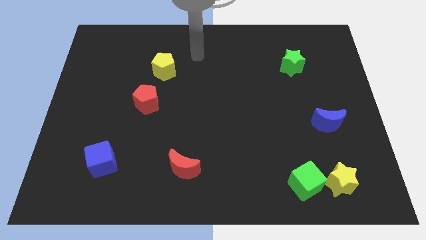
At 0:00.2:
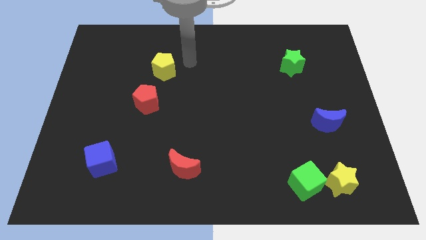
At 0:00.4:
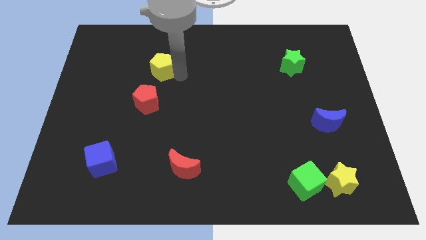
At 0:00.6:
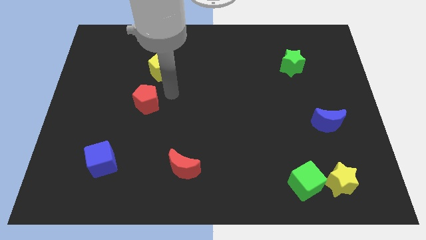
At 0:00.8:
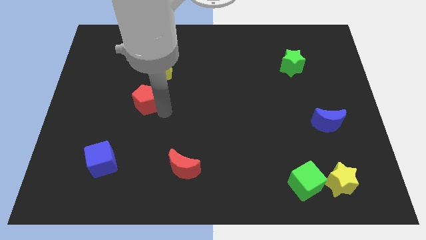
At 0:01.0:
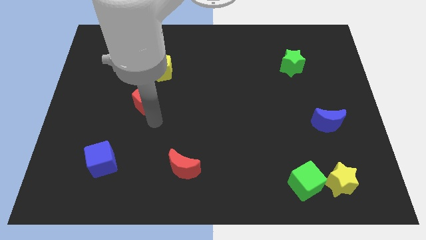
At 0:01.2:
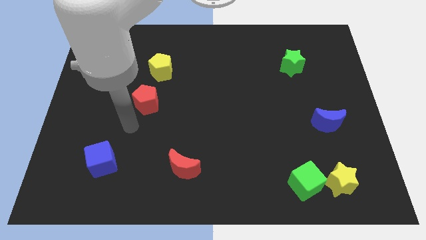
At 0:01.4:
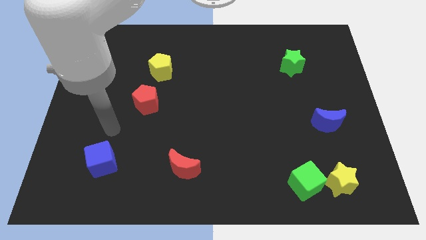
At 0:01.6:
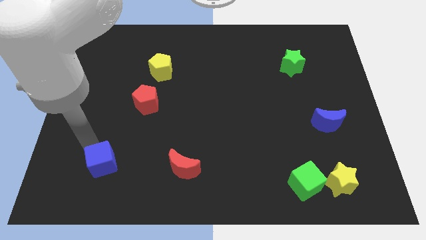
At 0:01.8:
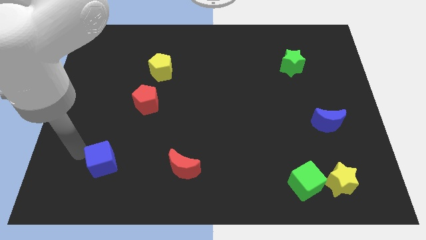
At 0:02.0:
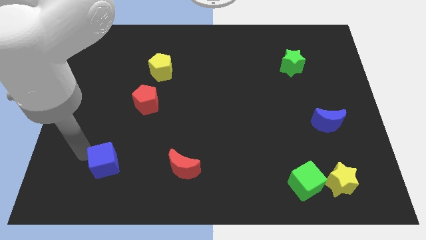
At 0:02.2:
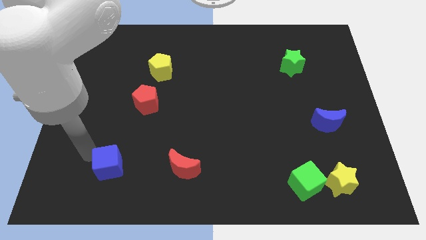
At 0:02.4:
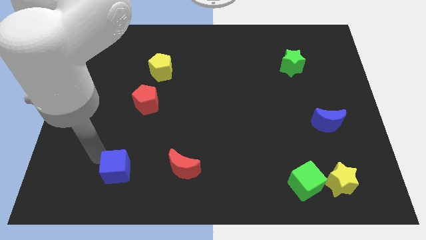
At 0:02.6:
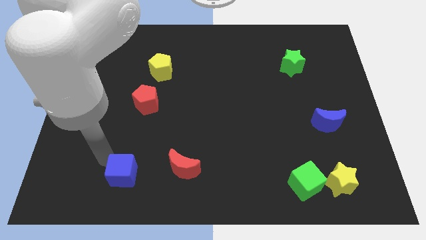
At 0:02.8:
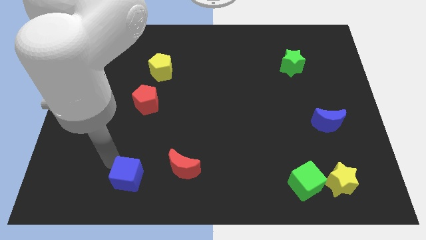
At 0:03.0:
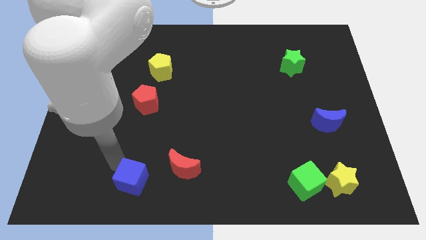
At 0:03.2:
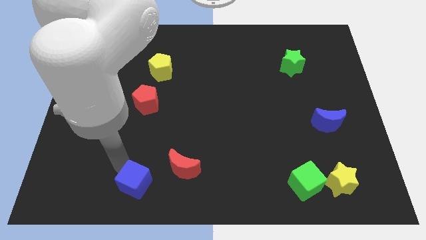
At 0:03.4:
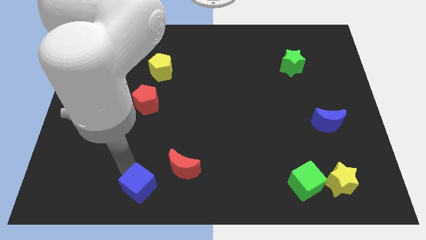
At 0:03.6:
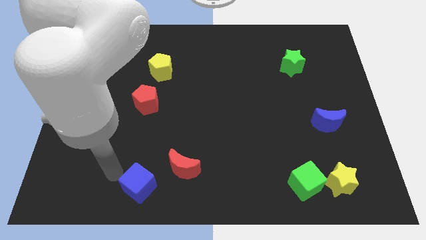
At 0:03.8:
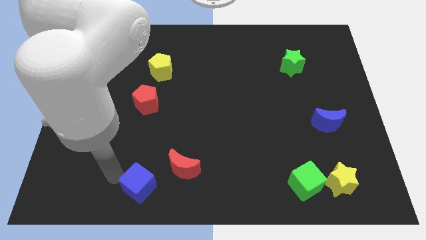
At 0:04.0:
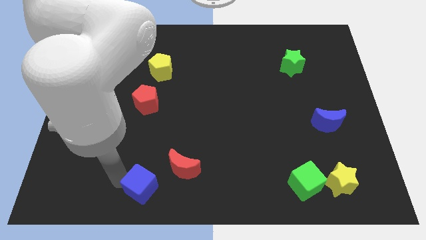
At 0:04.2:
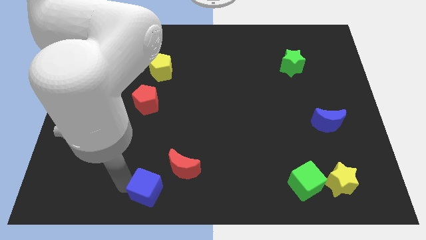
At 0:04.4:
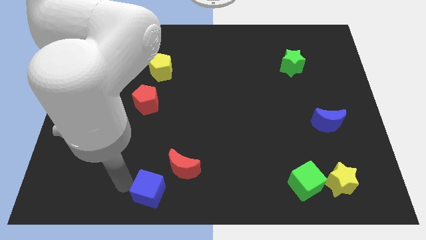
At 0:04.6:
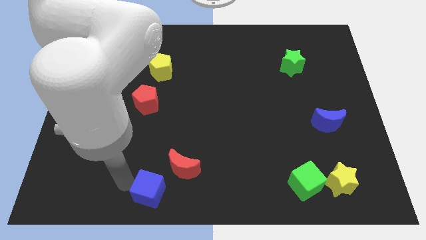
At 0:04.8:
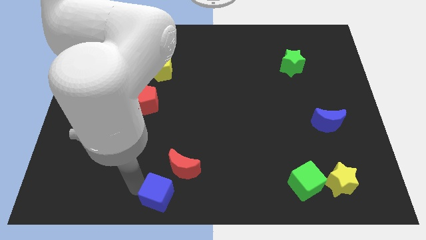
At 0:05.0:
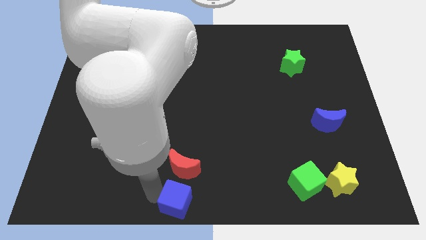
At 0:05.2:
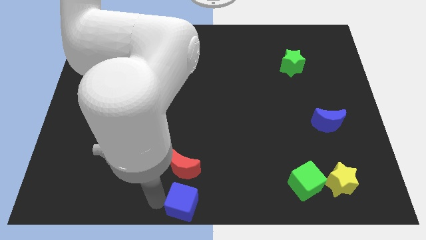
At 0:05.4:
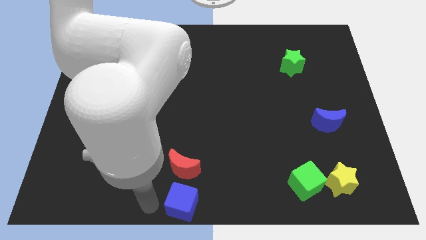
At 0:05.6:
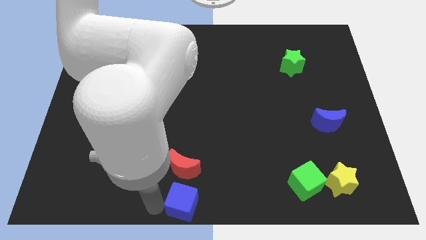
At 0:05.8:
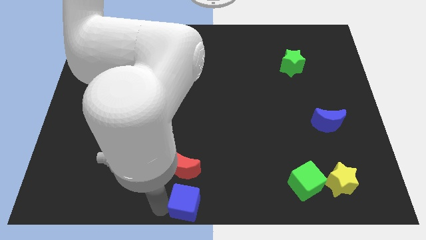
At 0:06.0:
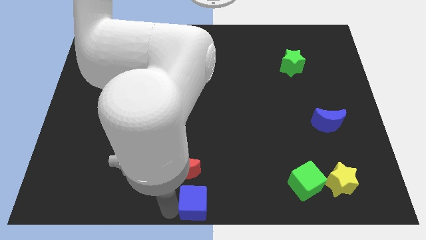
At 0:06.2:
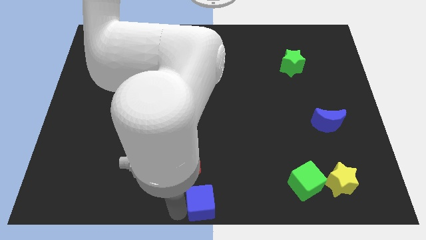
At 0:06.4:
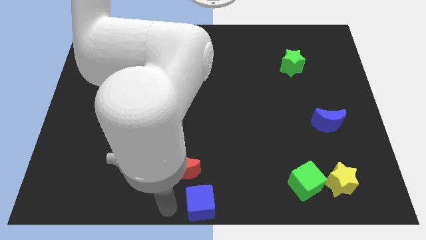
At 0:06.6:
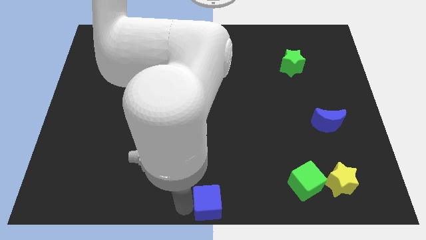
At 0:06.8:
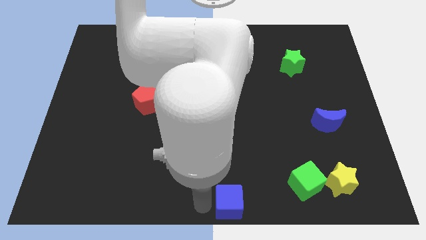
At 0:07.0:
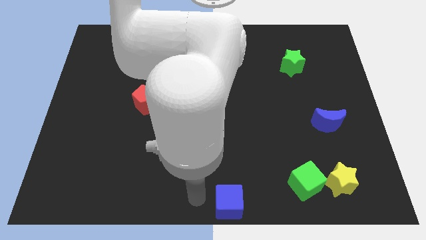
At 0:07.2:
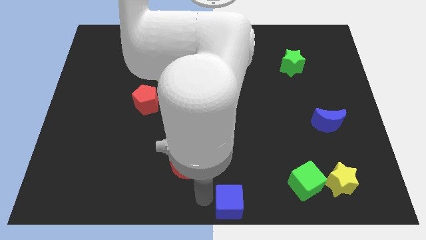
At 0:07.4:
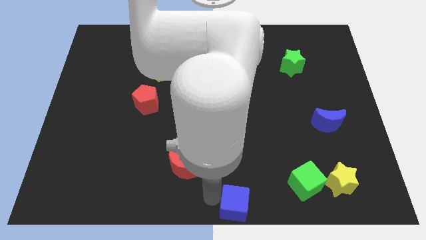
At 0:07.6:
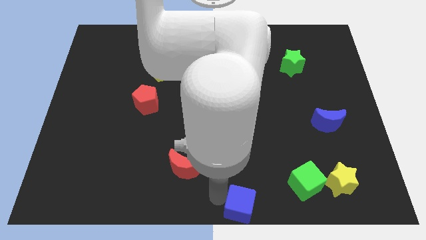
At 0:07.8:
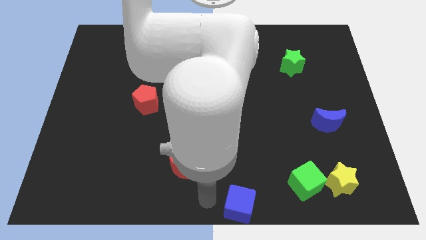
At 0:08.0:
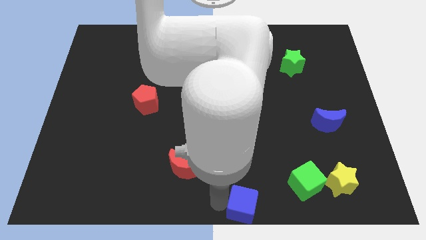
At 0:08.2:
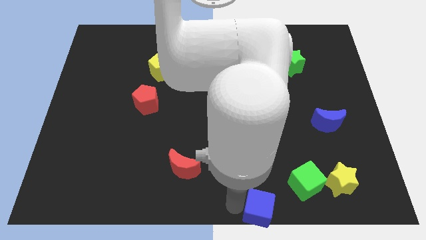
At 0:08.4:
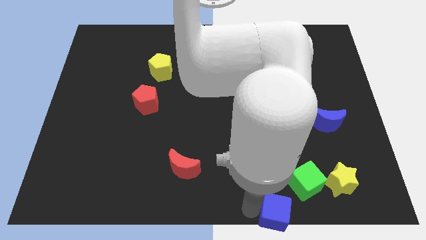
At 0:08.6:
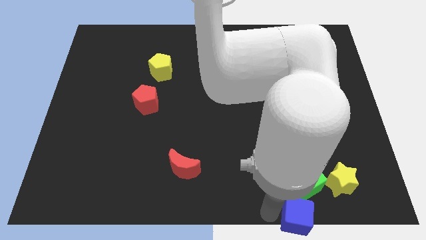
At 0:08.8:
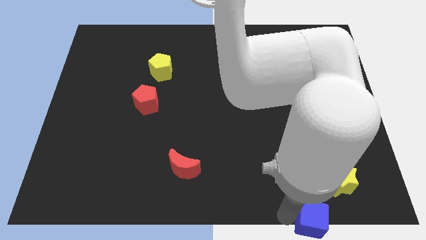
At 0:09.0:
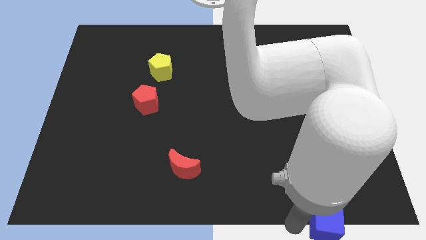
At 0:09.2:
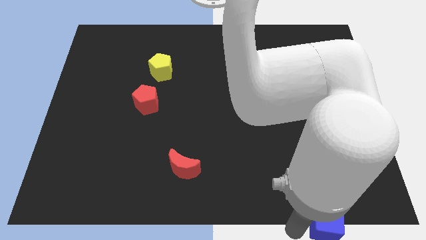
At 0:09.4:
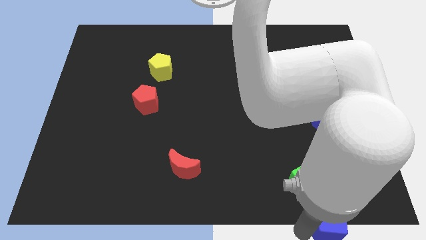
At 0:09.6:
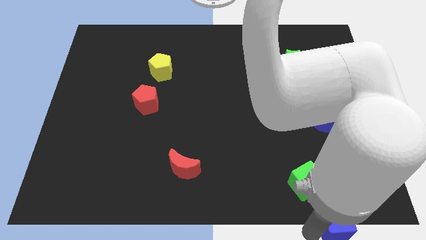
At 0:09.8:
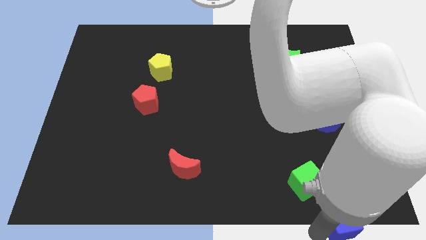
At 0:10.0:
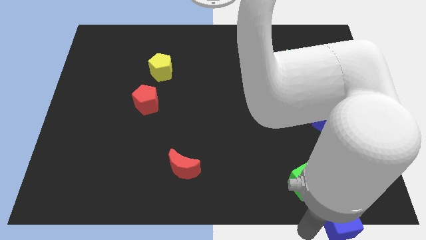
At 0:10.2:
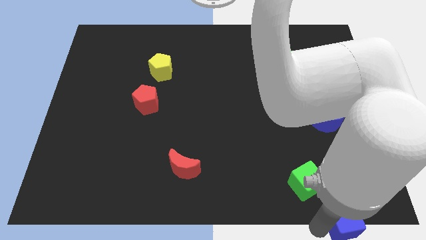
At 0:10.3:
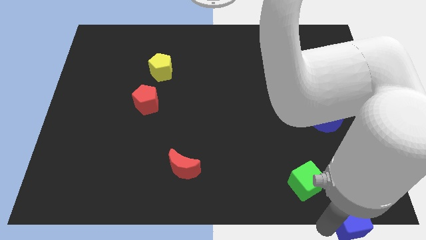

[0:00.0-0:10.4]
move the blue cube to the bottom right of the board
